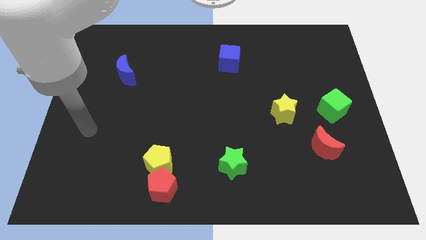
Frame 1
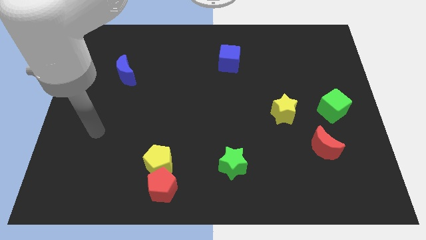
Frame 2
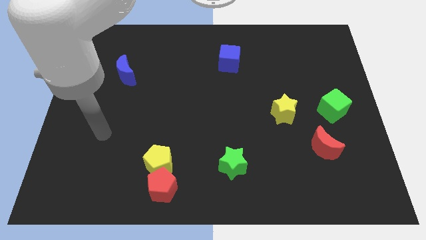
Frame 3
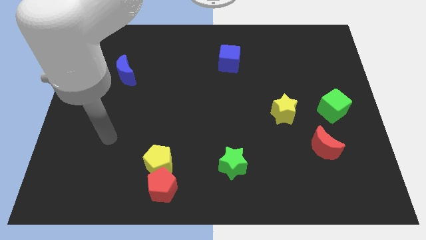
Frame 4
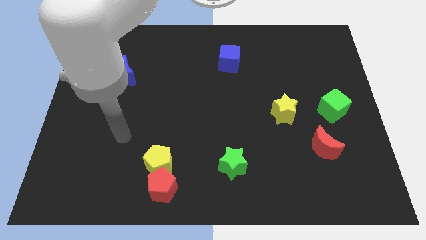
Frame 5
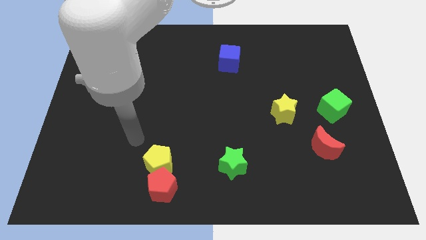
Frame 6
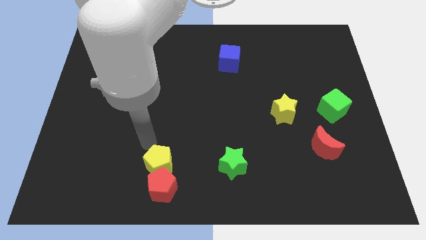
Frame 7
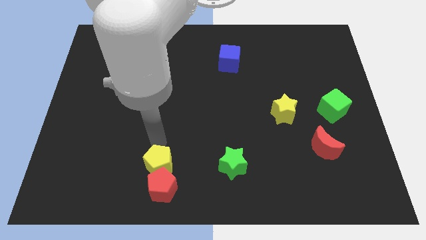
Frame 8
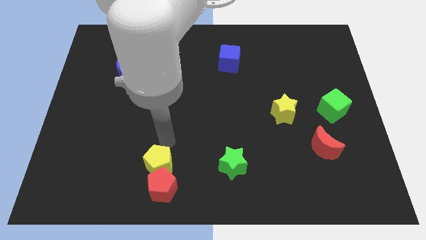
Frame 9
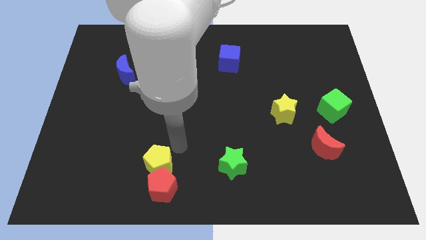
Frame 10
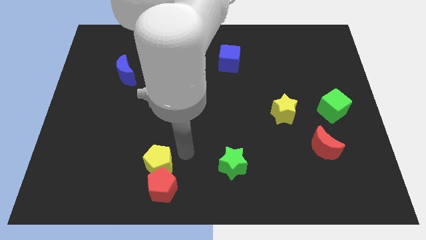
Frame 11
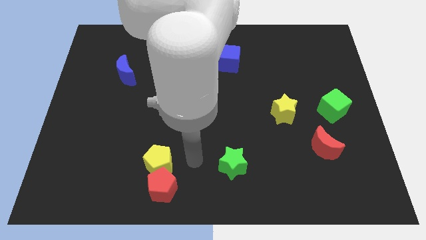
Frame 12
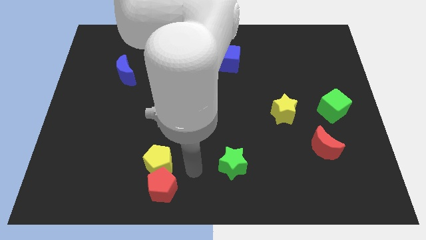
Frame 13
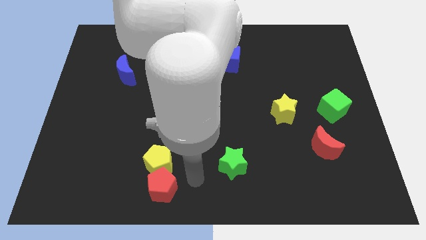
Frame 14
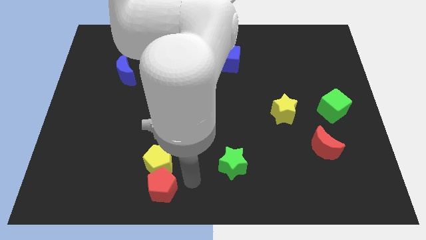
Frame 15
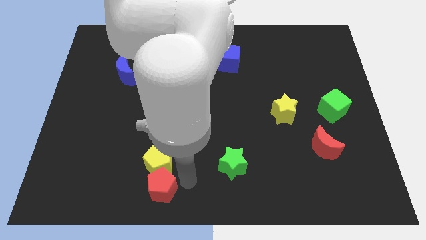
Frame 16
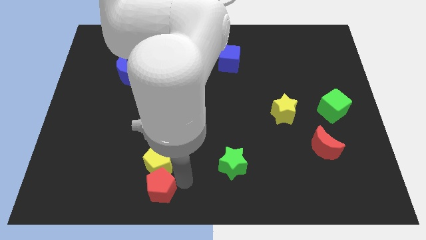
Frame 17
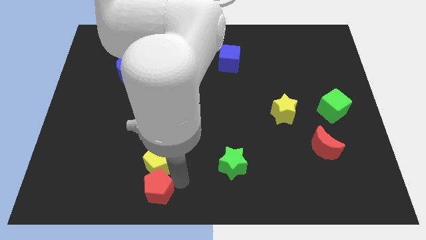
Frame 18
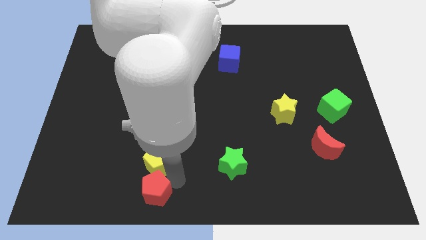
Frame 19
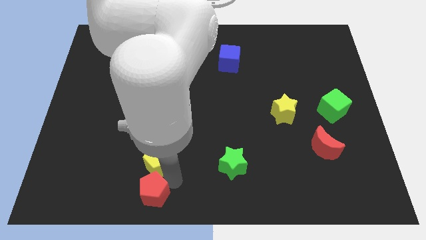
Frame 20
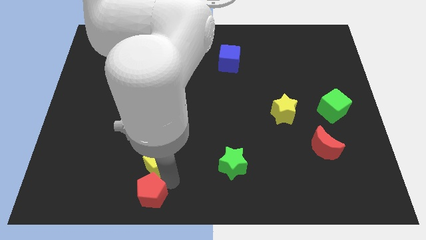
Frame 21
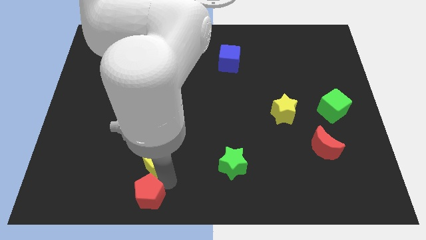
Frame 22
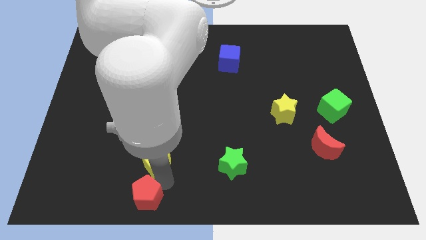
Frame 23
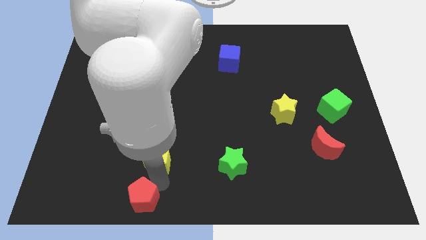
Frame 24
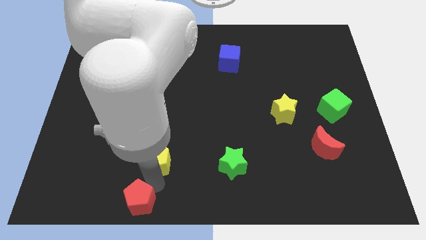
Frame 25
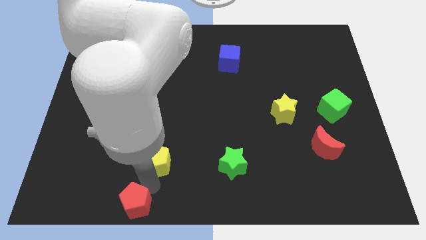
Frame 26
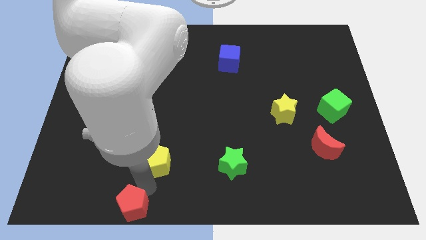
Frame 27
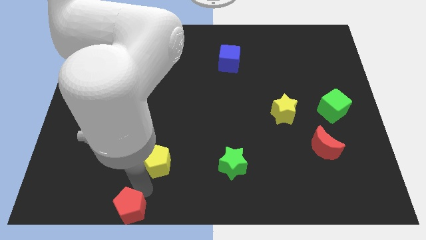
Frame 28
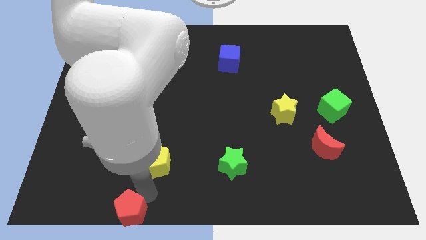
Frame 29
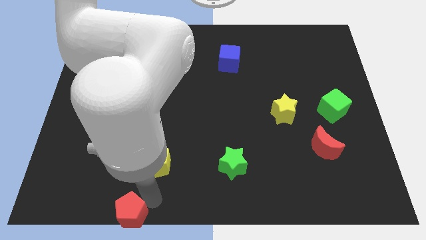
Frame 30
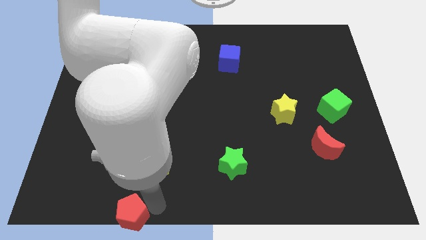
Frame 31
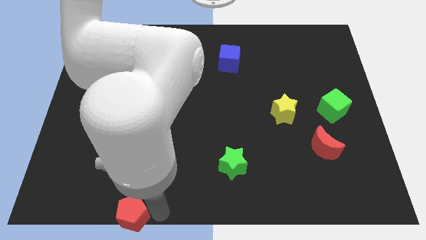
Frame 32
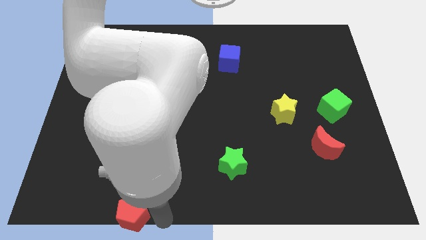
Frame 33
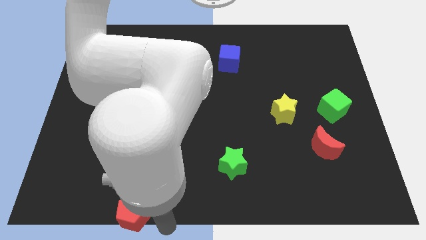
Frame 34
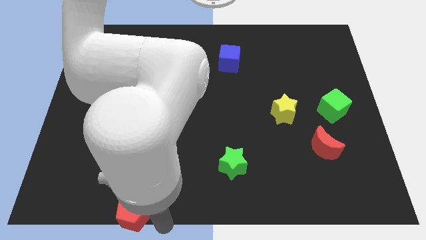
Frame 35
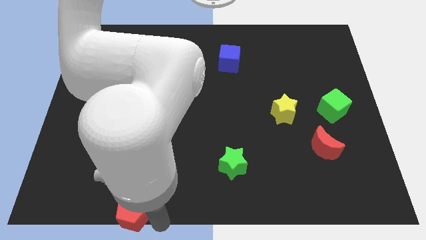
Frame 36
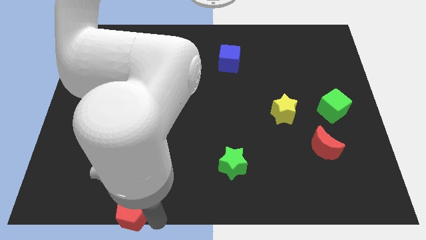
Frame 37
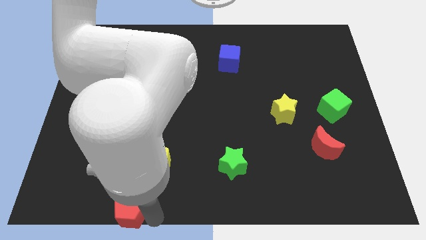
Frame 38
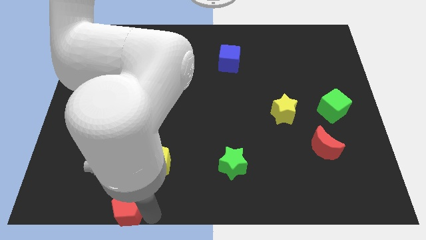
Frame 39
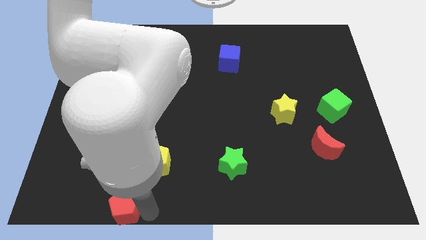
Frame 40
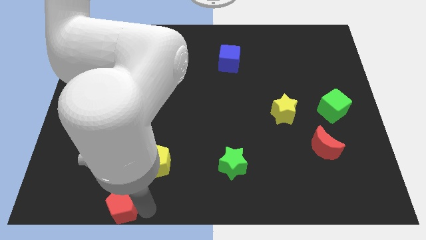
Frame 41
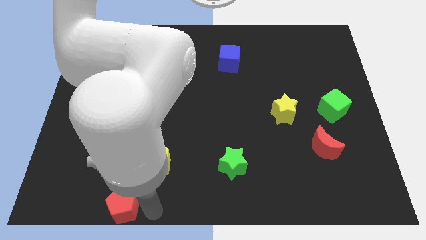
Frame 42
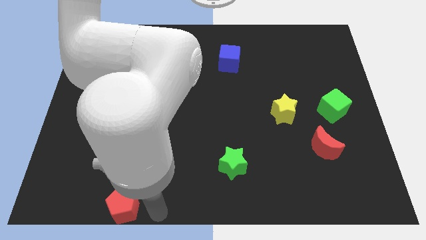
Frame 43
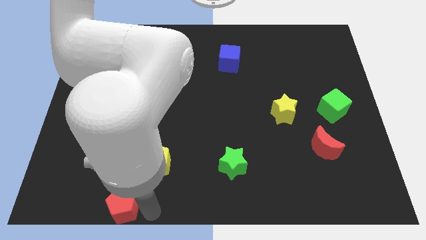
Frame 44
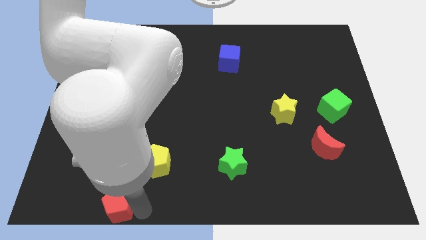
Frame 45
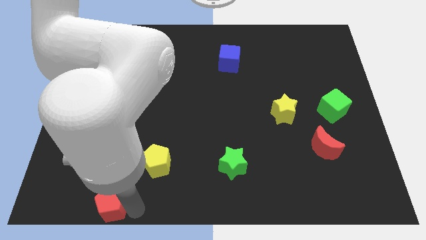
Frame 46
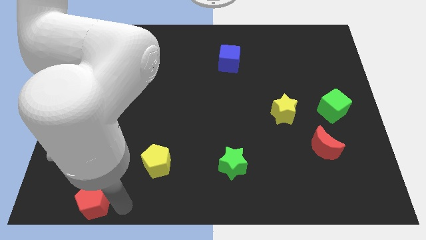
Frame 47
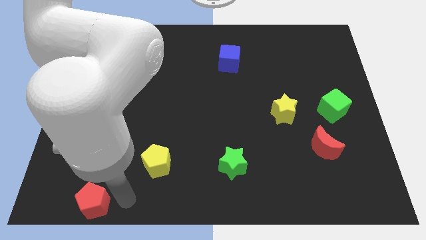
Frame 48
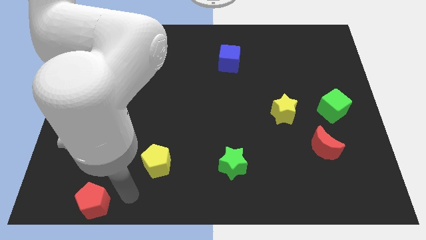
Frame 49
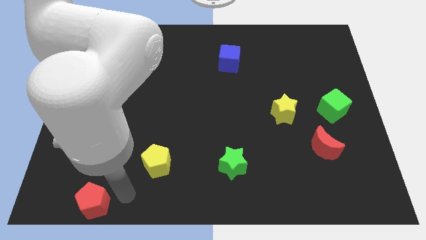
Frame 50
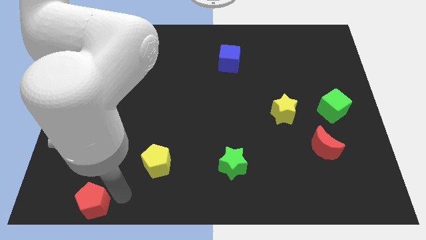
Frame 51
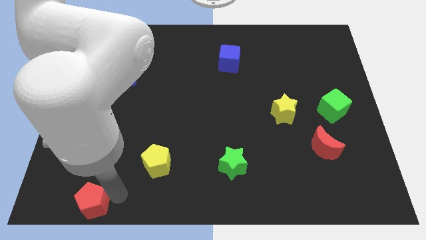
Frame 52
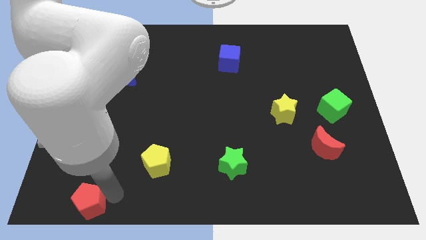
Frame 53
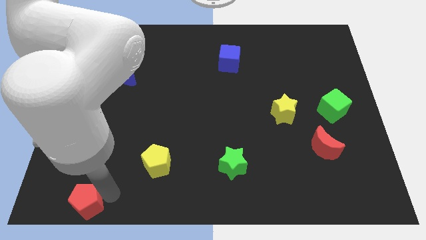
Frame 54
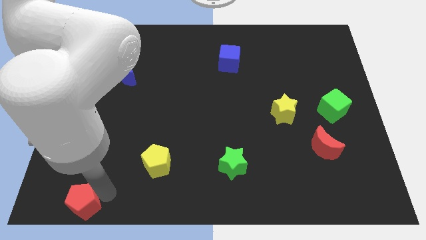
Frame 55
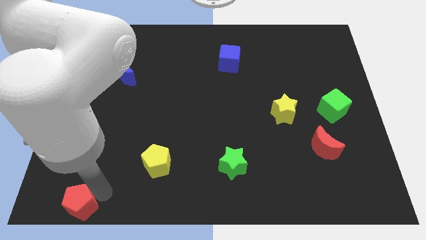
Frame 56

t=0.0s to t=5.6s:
slide the red pentagon to the bottom left
